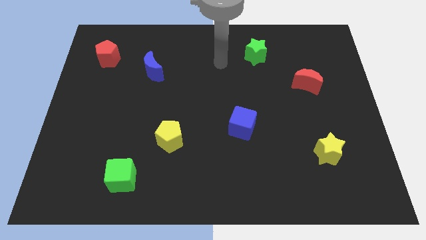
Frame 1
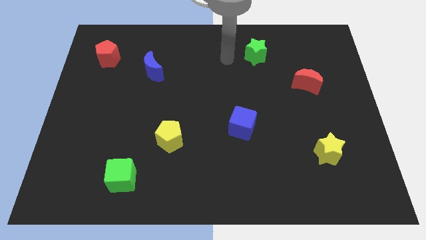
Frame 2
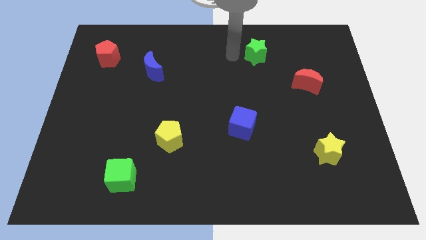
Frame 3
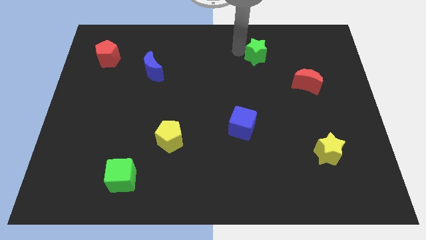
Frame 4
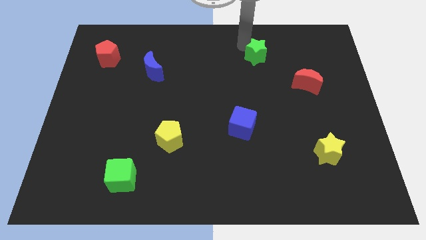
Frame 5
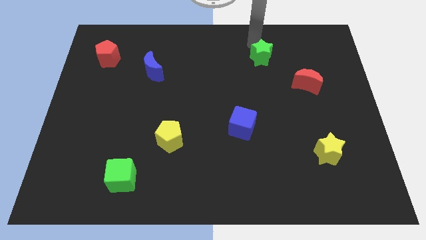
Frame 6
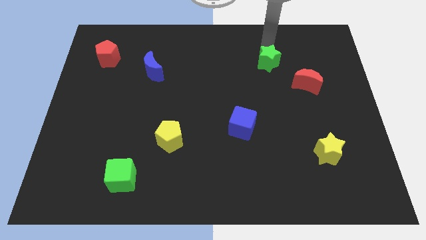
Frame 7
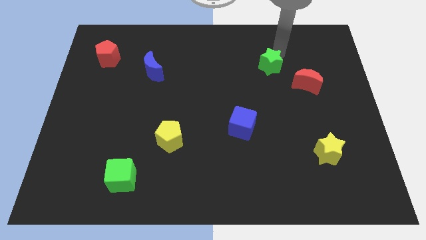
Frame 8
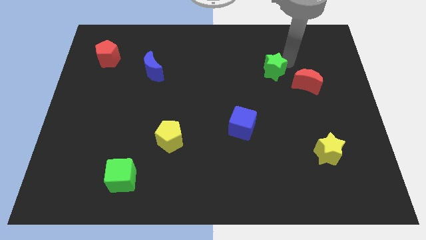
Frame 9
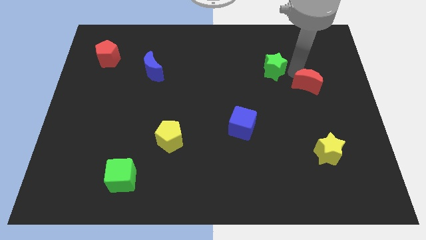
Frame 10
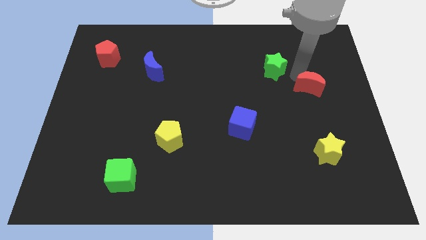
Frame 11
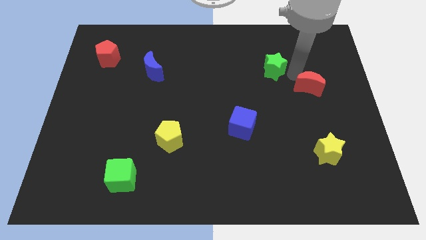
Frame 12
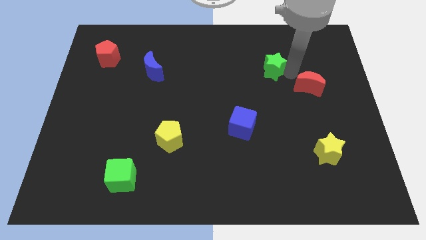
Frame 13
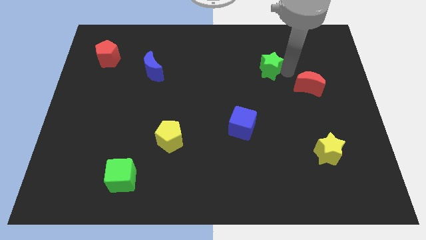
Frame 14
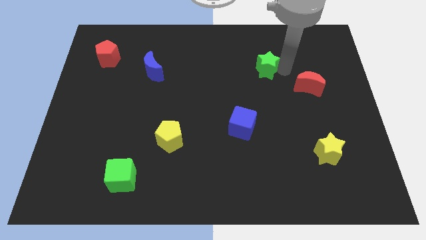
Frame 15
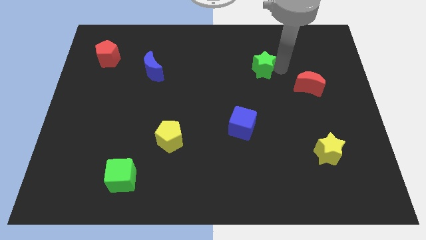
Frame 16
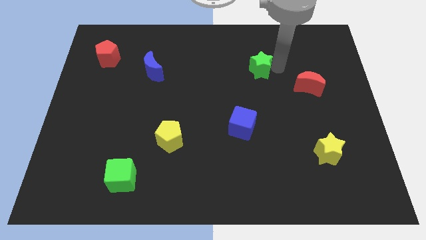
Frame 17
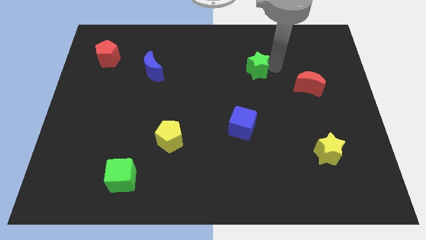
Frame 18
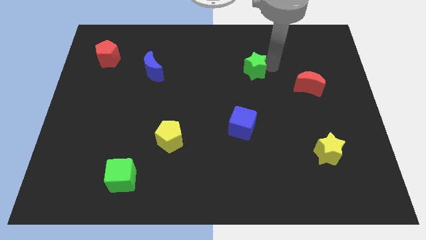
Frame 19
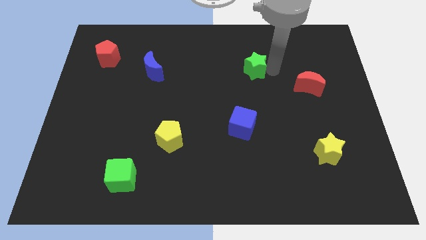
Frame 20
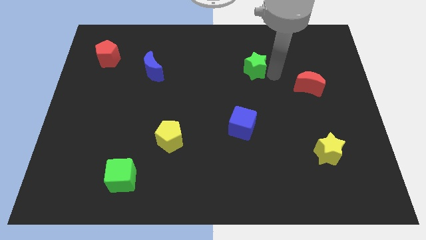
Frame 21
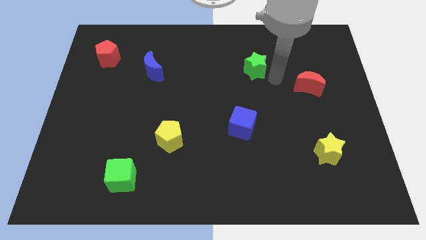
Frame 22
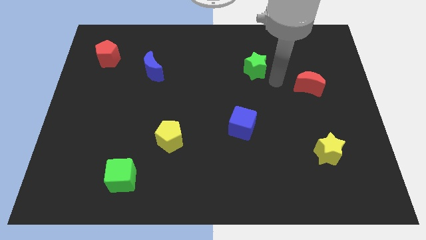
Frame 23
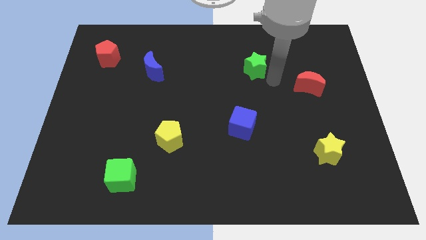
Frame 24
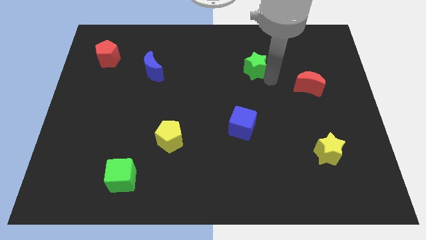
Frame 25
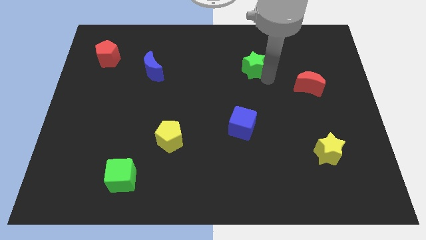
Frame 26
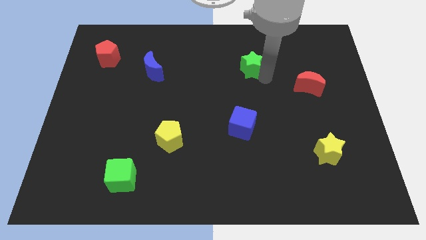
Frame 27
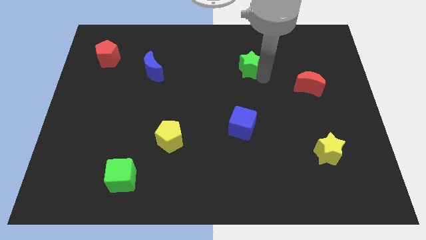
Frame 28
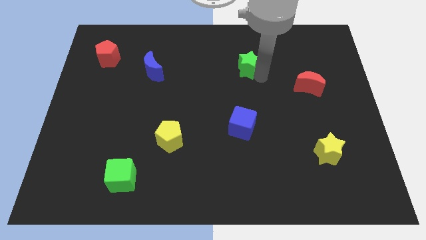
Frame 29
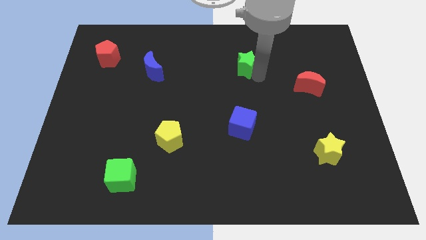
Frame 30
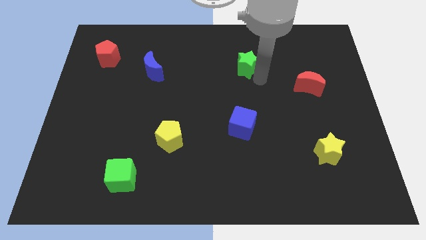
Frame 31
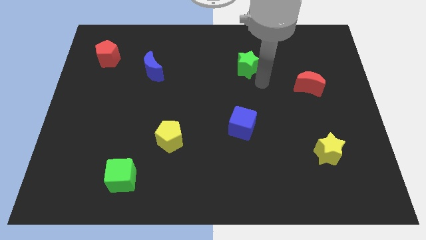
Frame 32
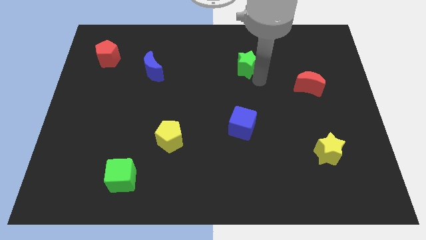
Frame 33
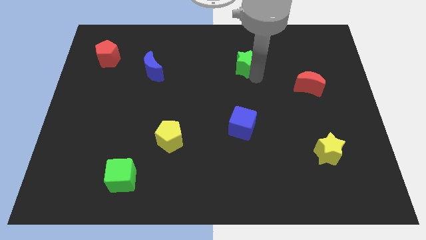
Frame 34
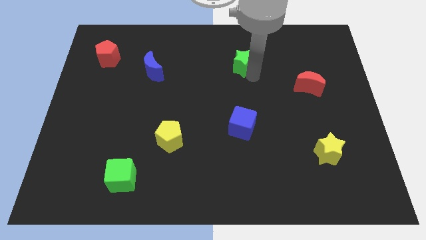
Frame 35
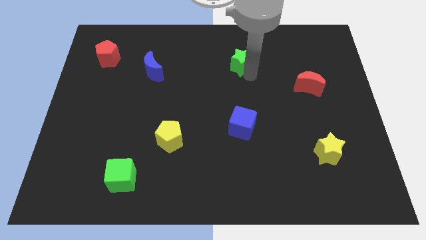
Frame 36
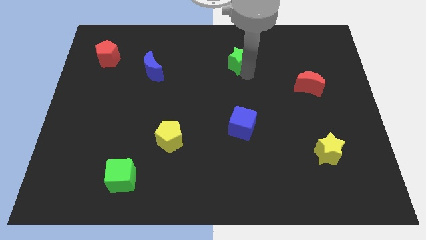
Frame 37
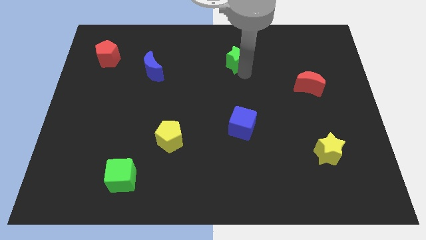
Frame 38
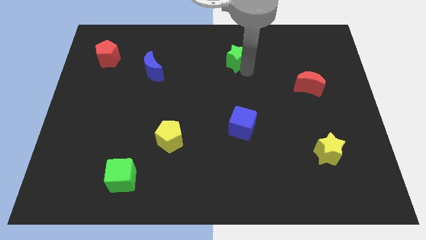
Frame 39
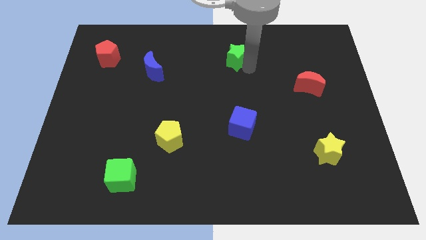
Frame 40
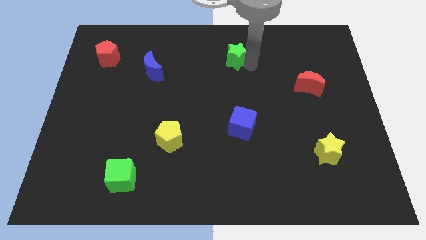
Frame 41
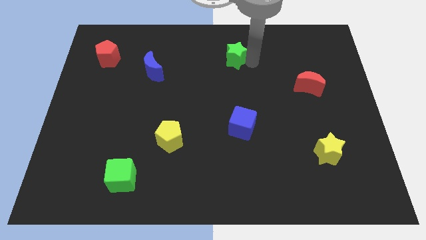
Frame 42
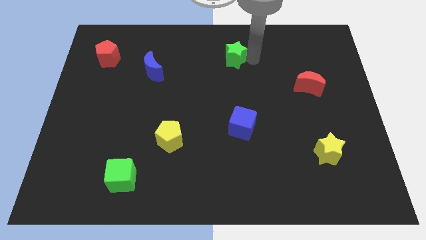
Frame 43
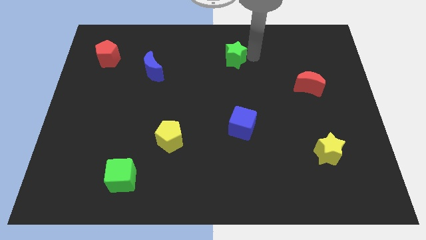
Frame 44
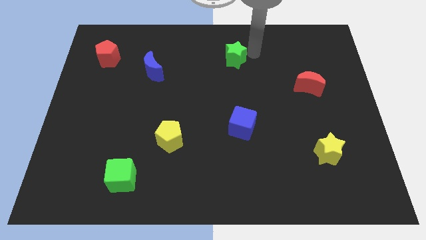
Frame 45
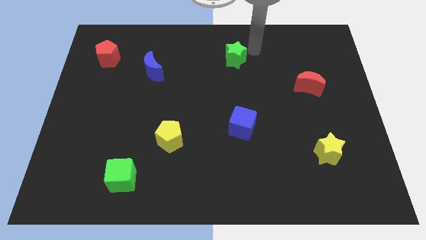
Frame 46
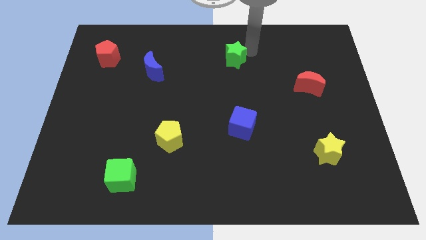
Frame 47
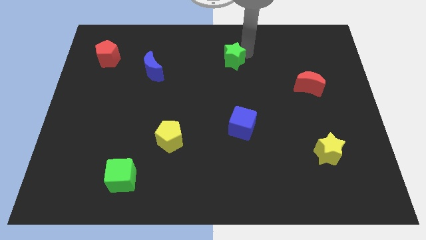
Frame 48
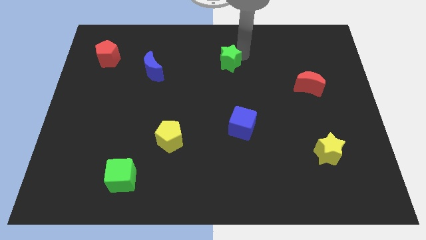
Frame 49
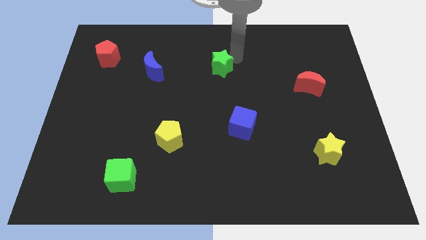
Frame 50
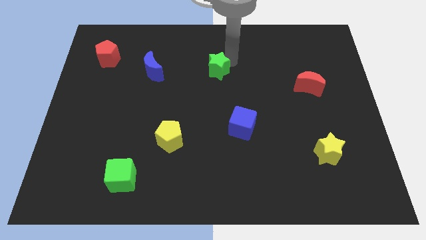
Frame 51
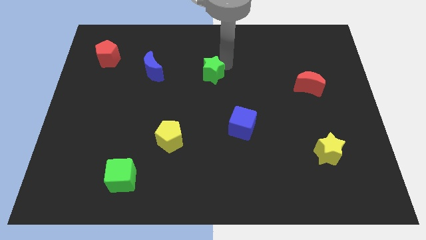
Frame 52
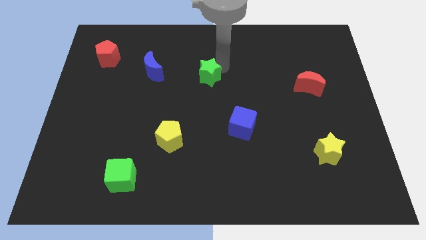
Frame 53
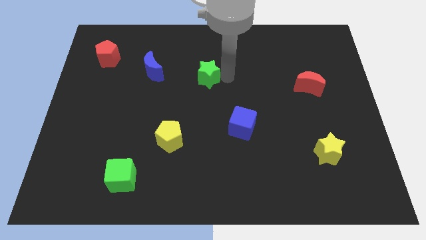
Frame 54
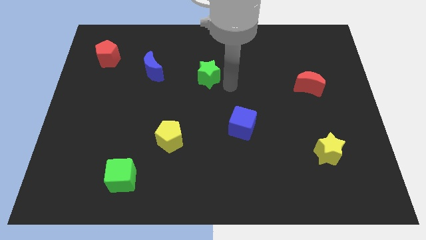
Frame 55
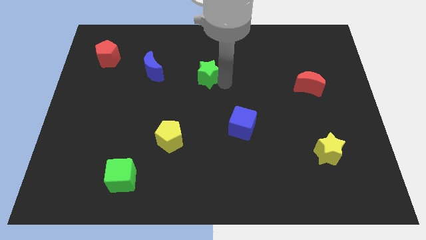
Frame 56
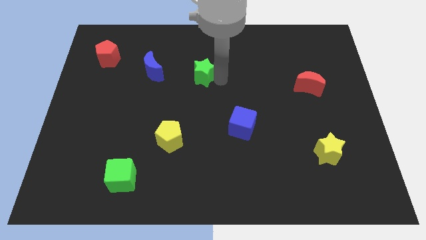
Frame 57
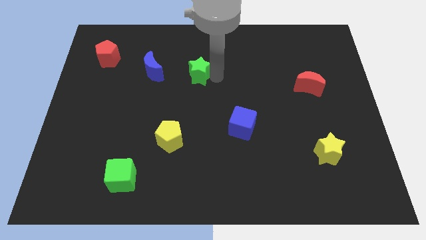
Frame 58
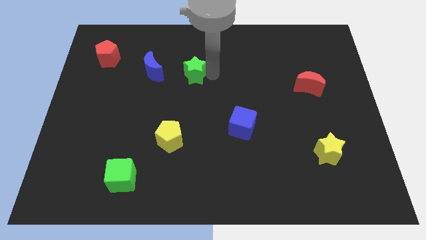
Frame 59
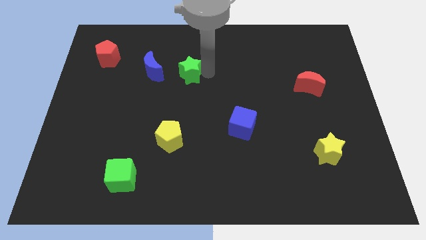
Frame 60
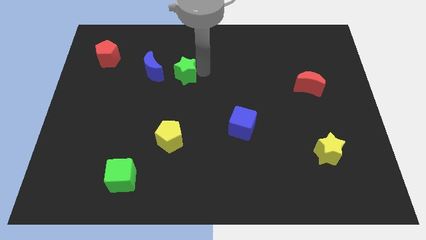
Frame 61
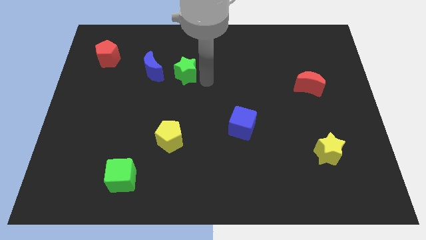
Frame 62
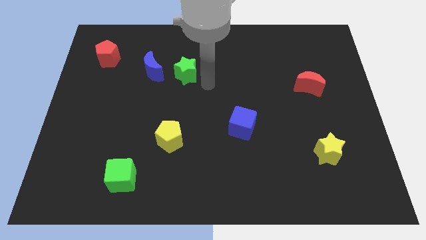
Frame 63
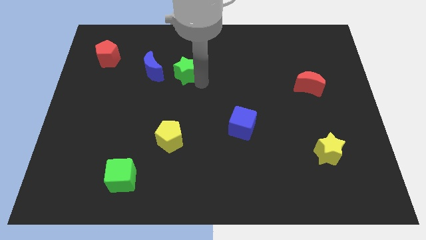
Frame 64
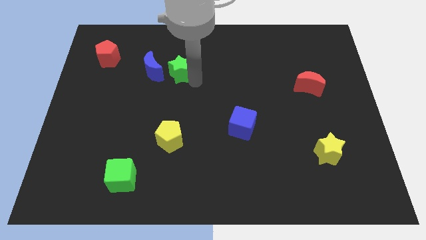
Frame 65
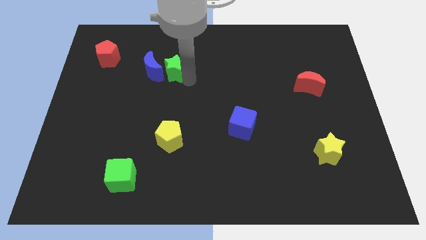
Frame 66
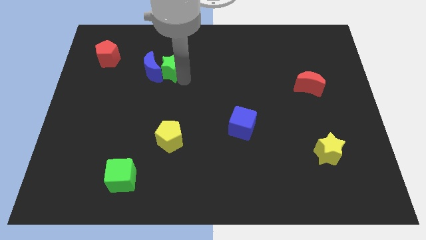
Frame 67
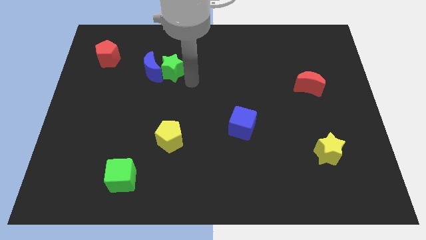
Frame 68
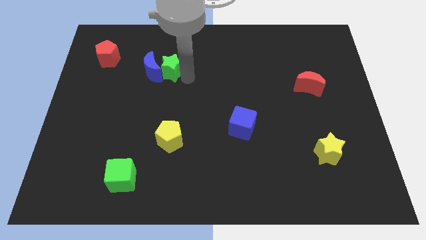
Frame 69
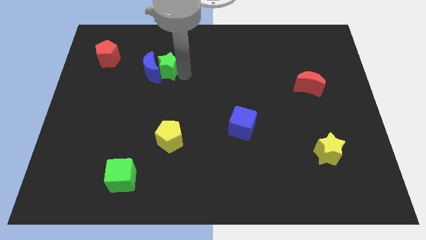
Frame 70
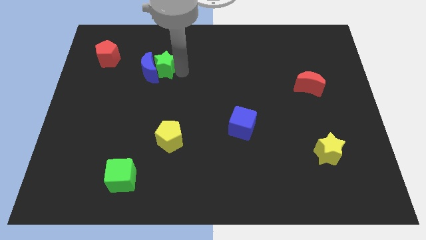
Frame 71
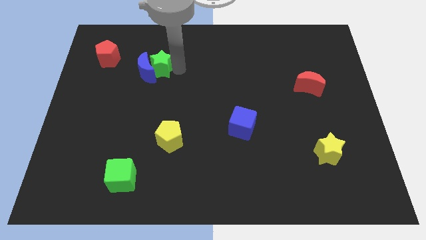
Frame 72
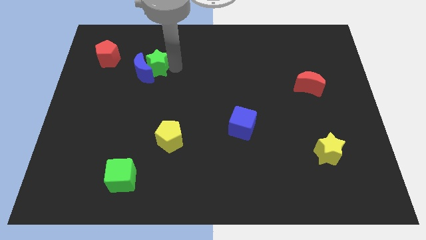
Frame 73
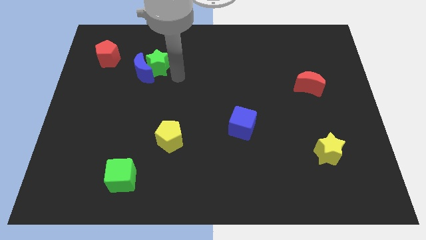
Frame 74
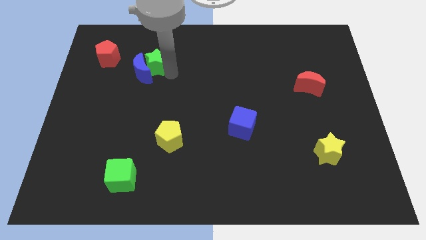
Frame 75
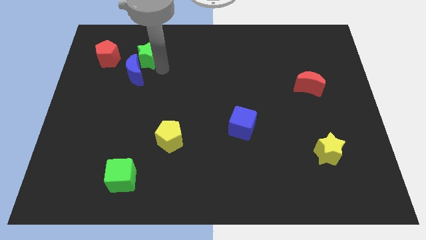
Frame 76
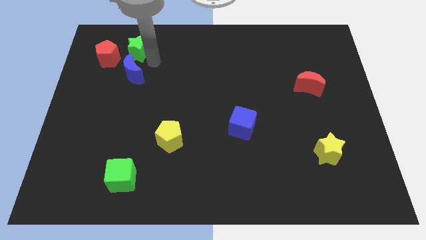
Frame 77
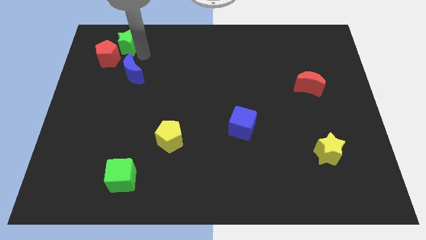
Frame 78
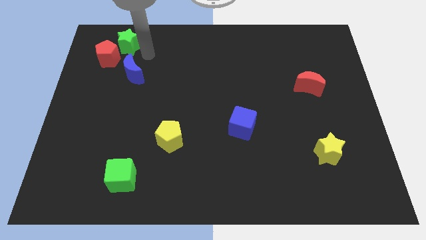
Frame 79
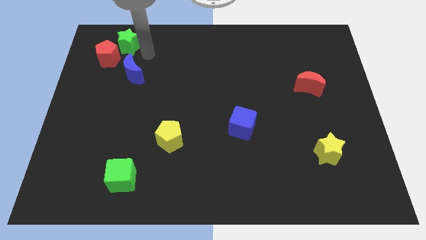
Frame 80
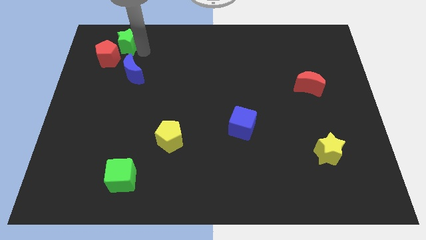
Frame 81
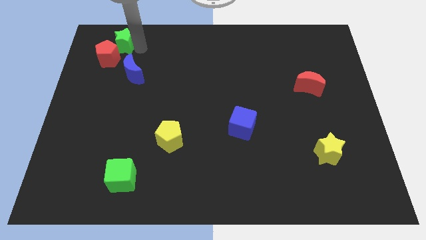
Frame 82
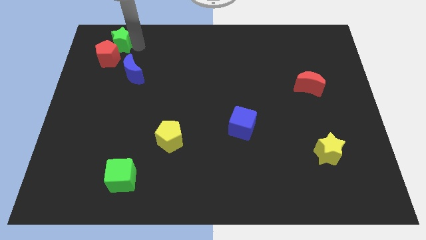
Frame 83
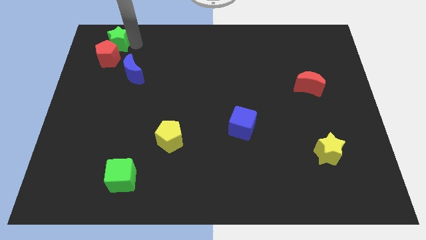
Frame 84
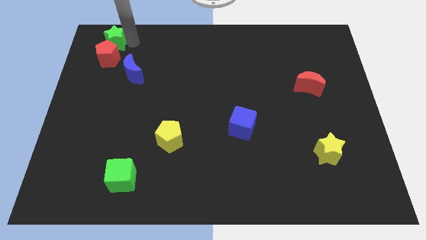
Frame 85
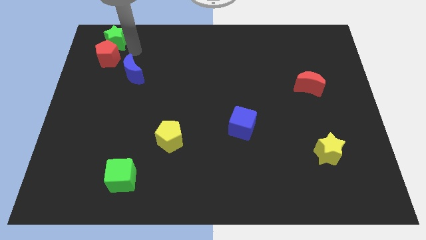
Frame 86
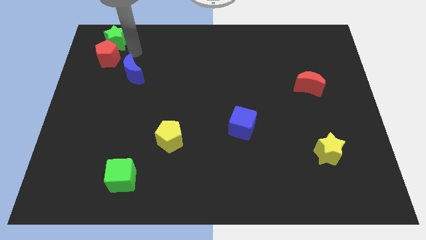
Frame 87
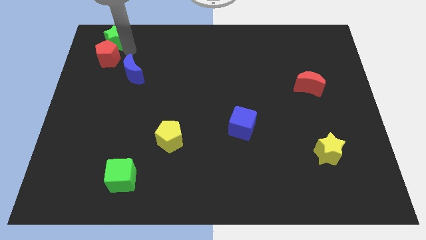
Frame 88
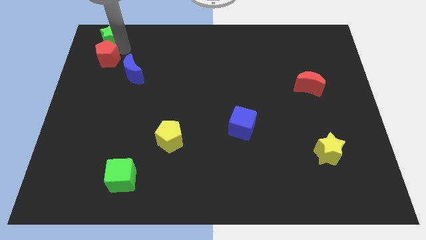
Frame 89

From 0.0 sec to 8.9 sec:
put the green star to the upper left corner
